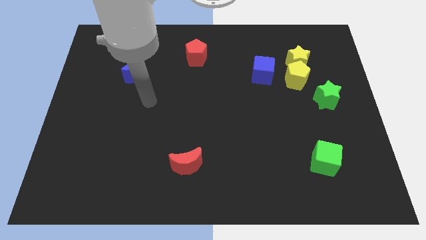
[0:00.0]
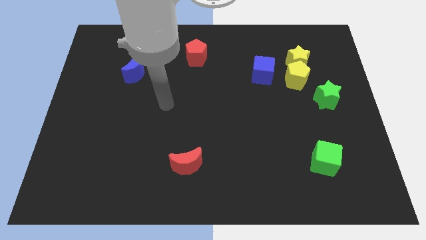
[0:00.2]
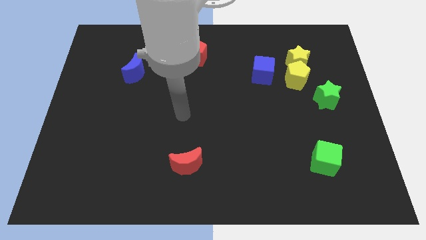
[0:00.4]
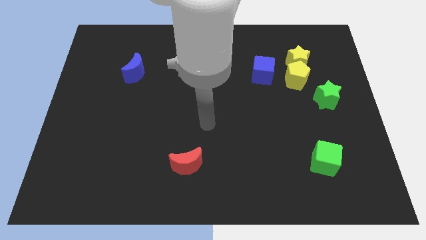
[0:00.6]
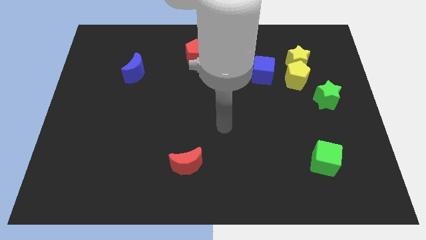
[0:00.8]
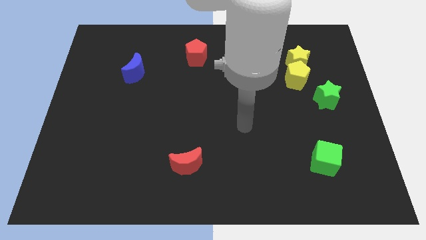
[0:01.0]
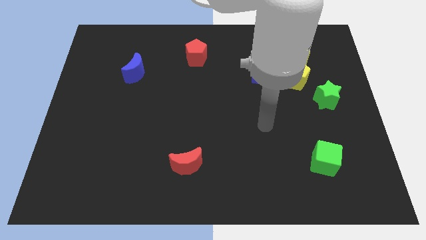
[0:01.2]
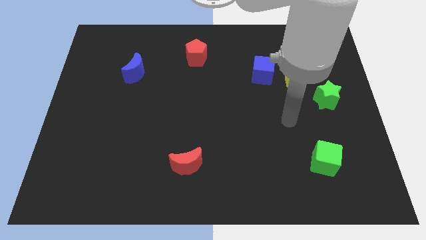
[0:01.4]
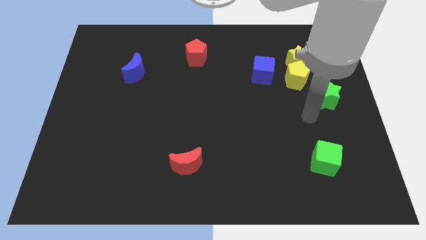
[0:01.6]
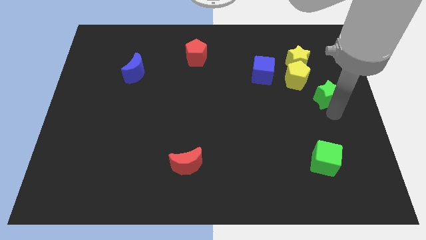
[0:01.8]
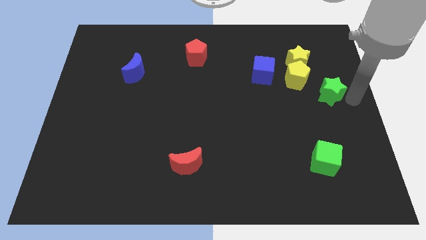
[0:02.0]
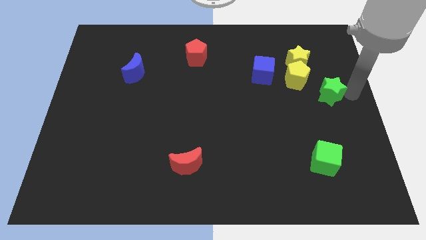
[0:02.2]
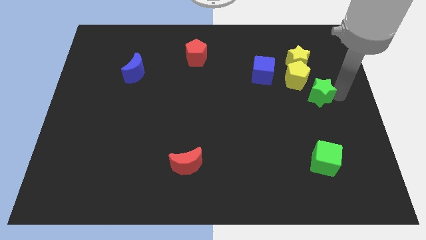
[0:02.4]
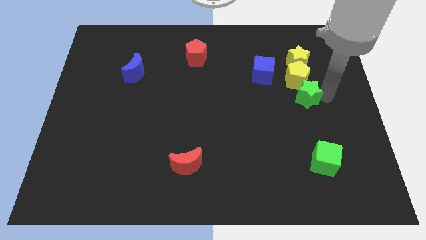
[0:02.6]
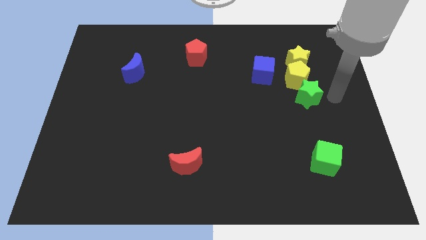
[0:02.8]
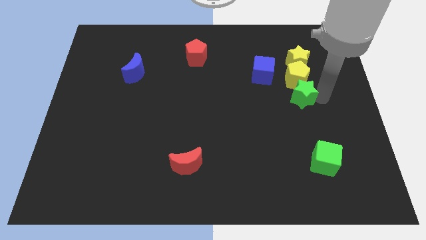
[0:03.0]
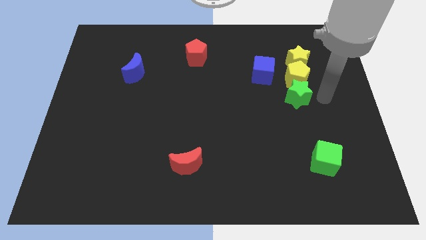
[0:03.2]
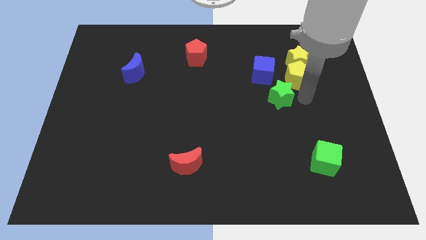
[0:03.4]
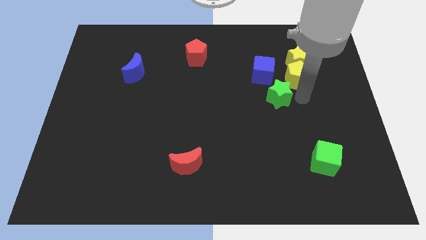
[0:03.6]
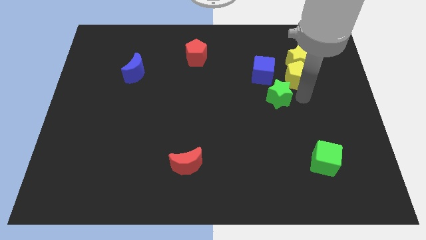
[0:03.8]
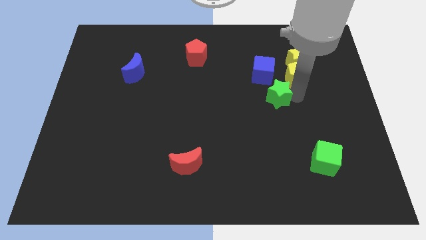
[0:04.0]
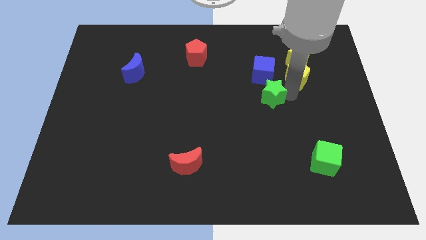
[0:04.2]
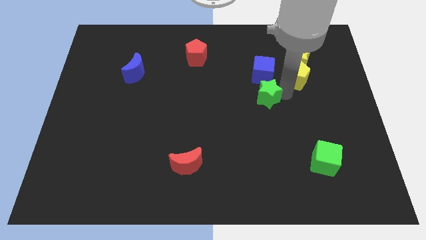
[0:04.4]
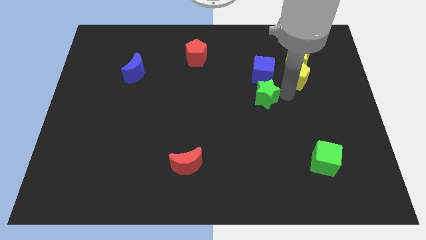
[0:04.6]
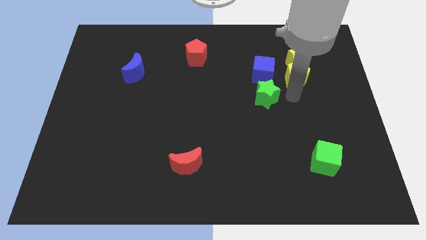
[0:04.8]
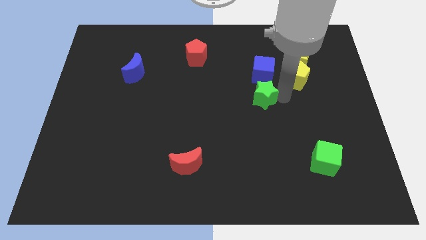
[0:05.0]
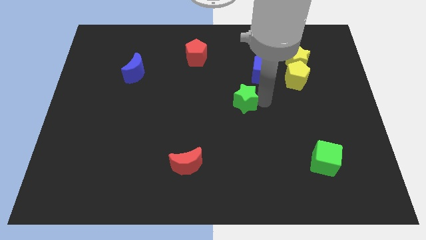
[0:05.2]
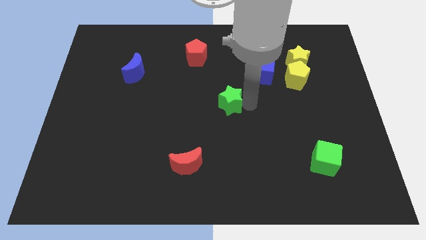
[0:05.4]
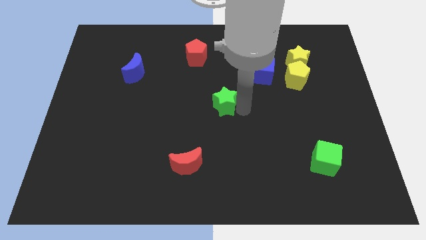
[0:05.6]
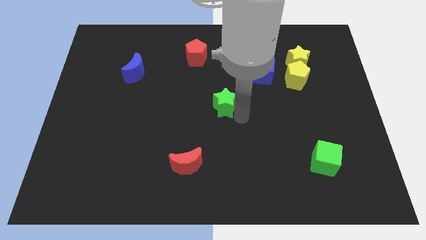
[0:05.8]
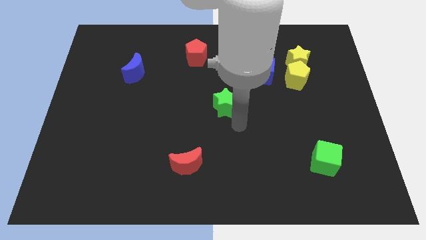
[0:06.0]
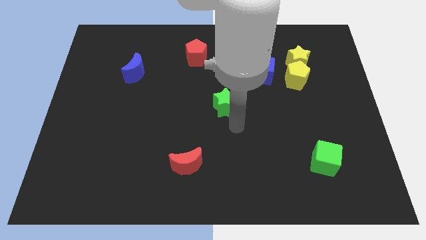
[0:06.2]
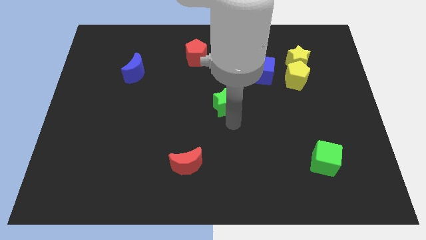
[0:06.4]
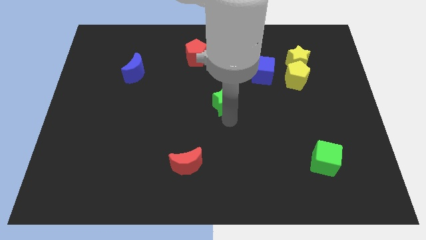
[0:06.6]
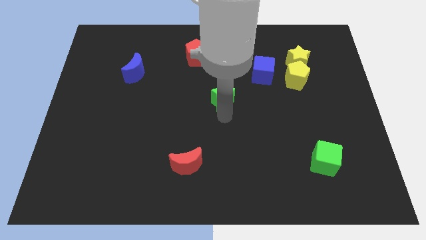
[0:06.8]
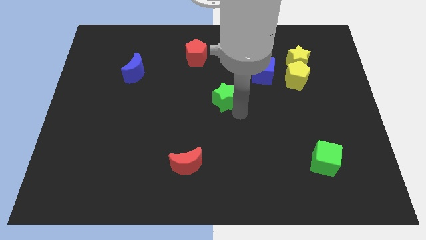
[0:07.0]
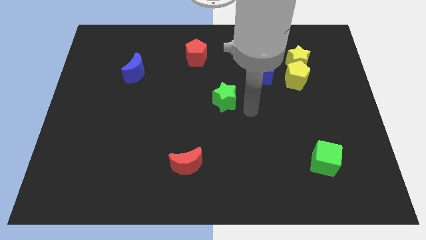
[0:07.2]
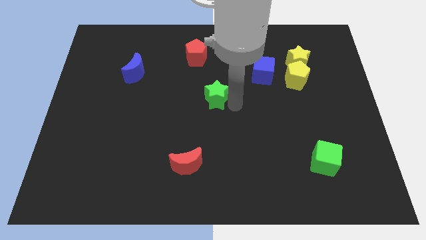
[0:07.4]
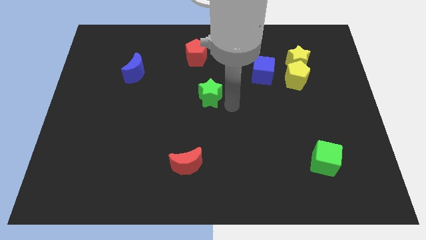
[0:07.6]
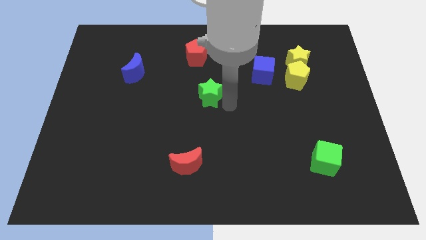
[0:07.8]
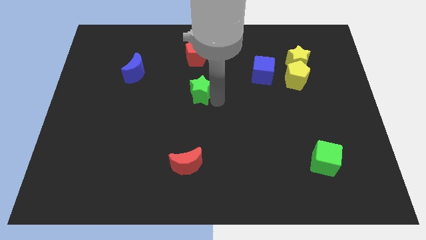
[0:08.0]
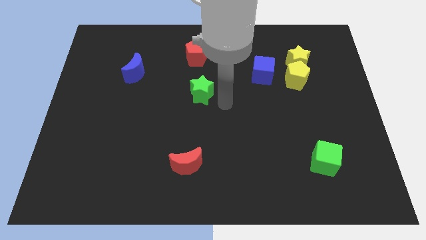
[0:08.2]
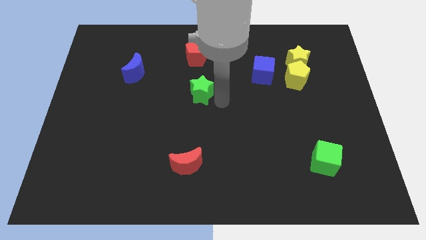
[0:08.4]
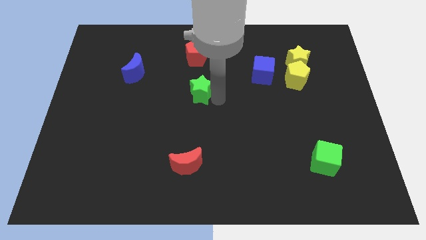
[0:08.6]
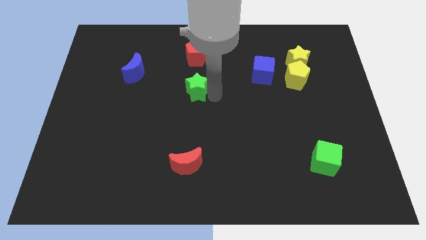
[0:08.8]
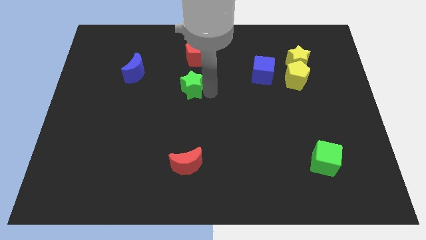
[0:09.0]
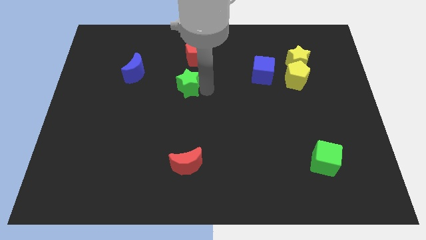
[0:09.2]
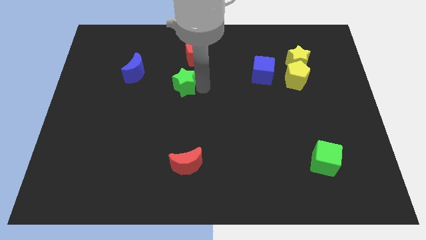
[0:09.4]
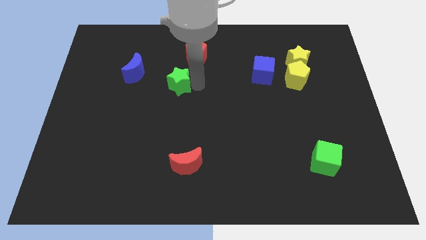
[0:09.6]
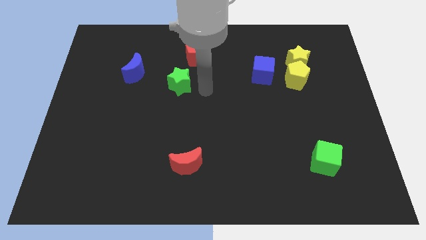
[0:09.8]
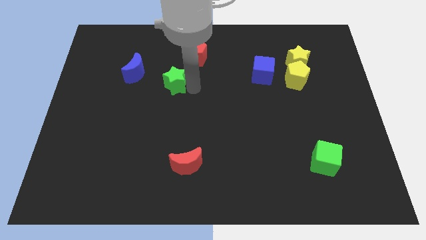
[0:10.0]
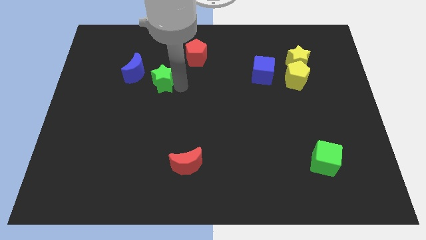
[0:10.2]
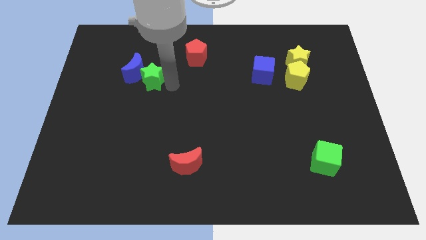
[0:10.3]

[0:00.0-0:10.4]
move the green star close to the blue moon

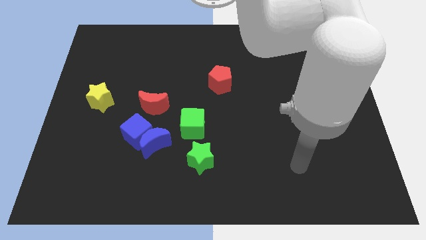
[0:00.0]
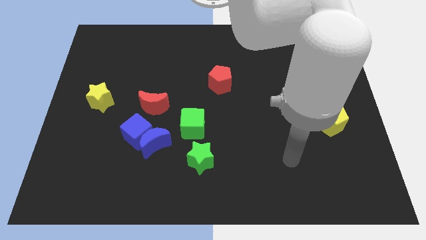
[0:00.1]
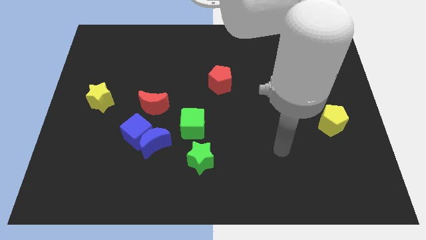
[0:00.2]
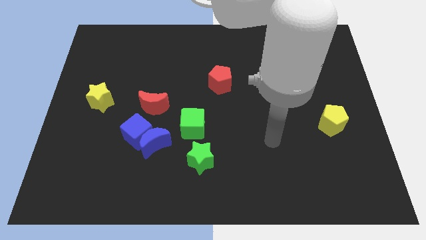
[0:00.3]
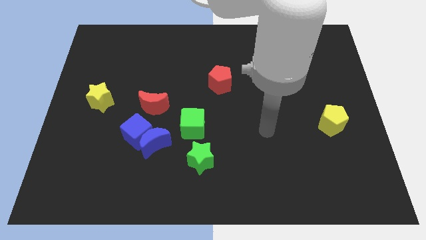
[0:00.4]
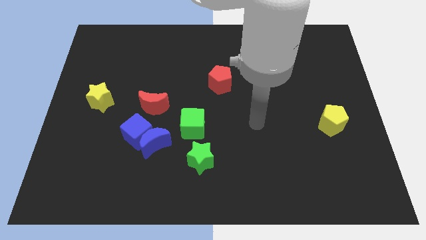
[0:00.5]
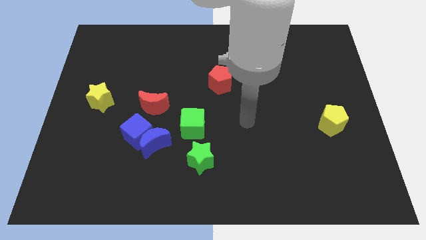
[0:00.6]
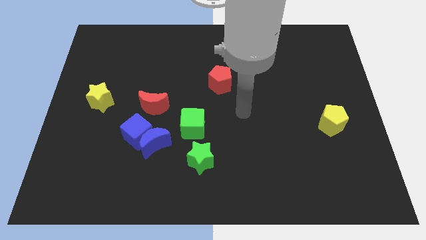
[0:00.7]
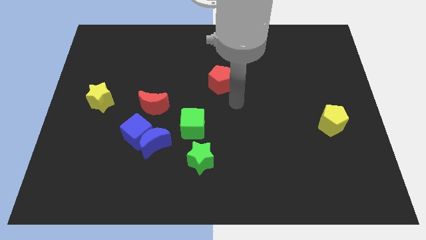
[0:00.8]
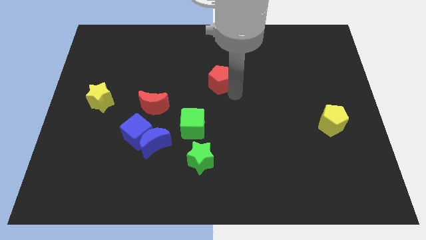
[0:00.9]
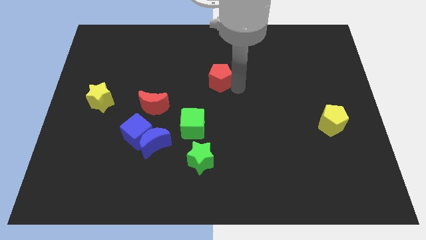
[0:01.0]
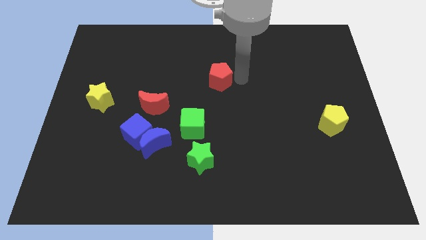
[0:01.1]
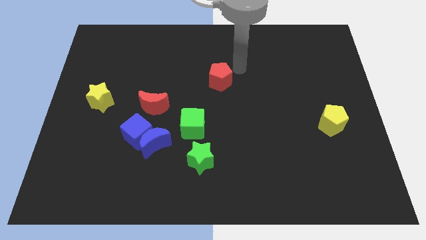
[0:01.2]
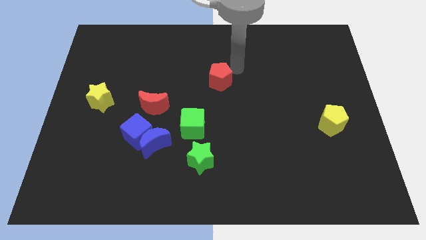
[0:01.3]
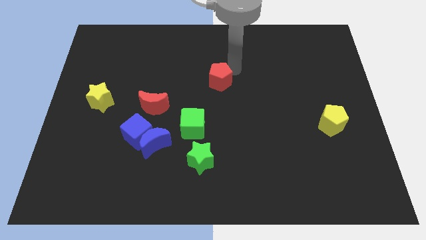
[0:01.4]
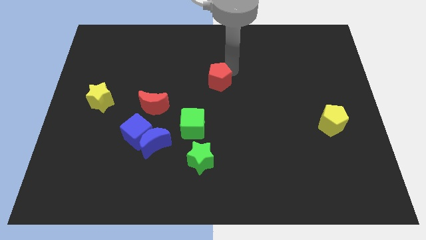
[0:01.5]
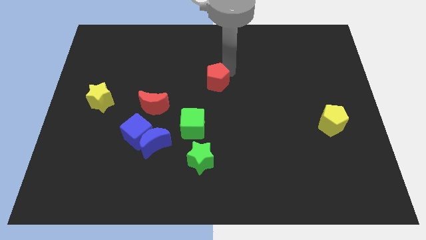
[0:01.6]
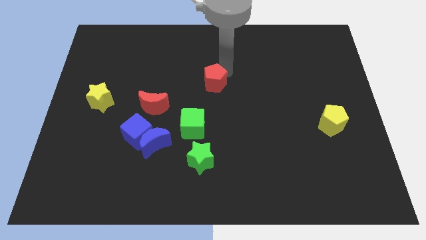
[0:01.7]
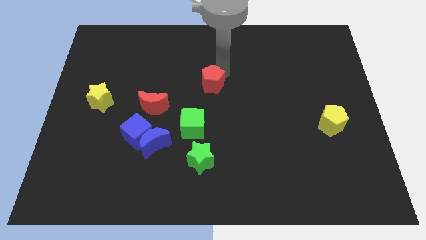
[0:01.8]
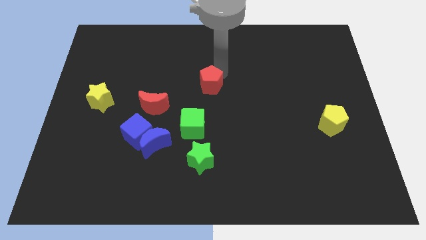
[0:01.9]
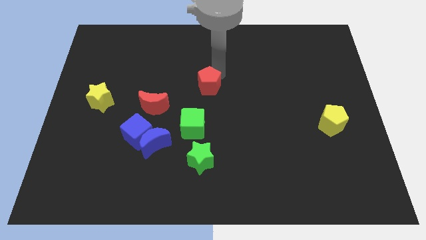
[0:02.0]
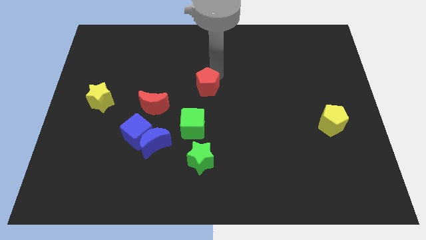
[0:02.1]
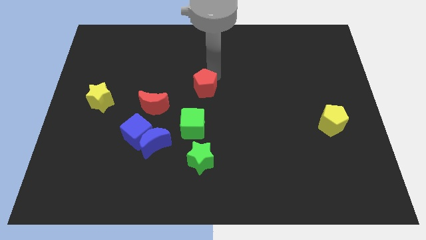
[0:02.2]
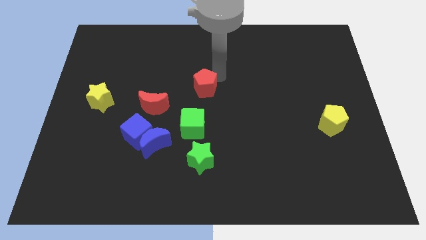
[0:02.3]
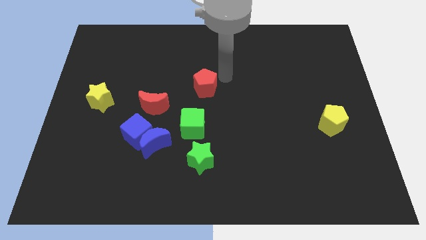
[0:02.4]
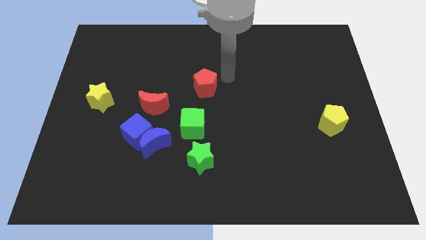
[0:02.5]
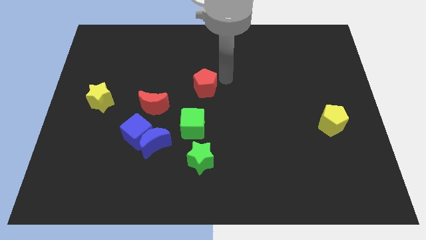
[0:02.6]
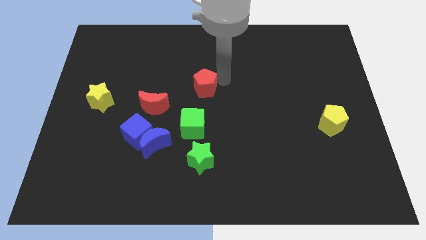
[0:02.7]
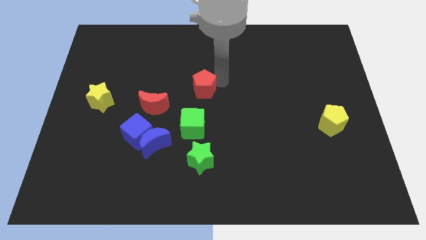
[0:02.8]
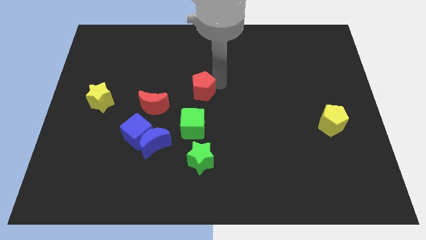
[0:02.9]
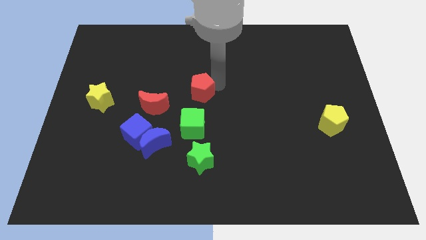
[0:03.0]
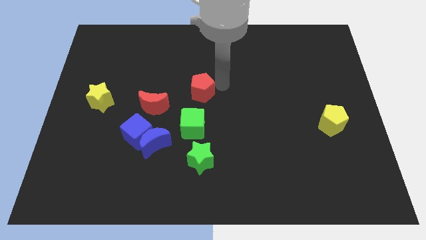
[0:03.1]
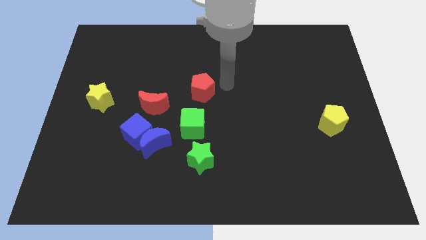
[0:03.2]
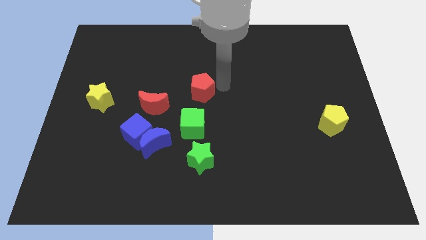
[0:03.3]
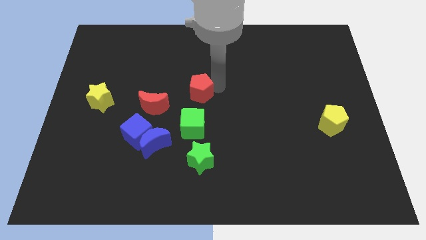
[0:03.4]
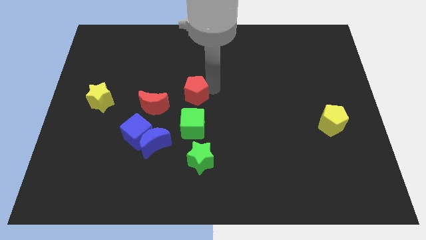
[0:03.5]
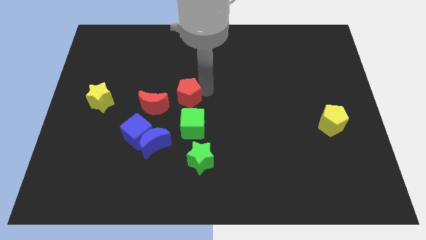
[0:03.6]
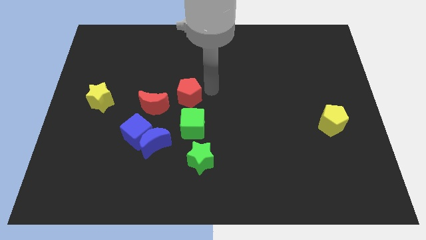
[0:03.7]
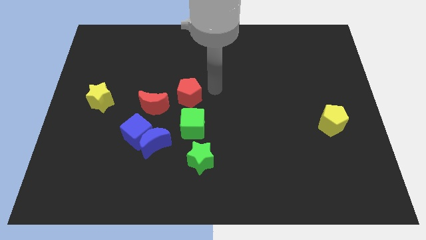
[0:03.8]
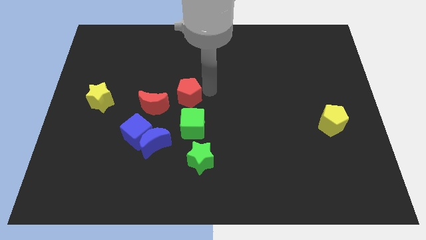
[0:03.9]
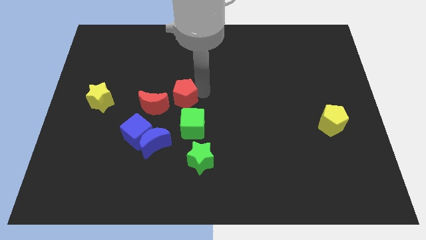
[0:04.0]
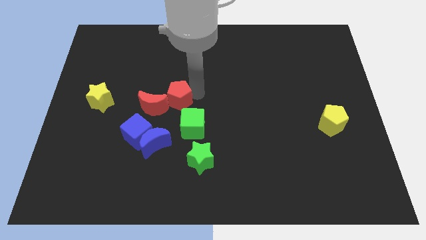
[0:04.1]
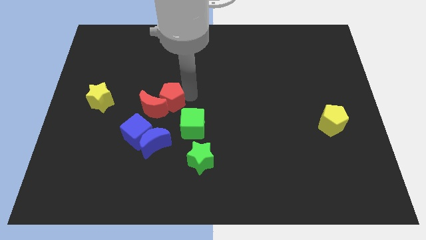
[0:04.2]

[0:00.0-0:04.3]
slide the red pentagon towards the red moon
